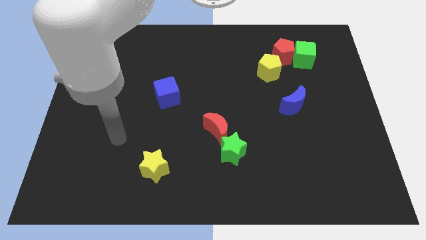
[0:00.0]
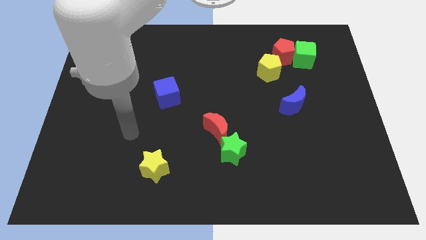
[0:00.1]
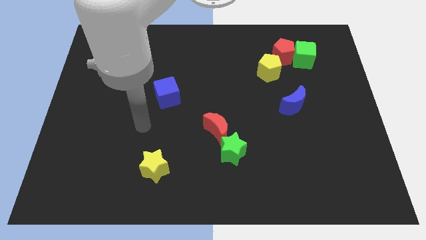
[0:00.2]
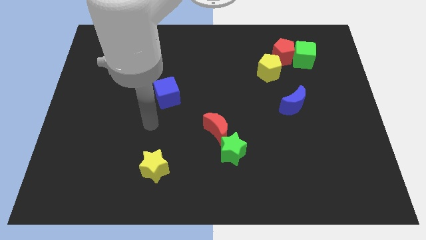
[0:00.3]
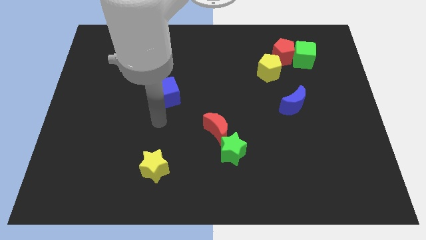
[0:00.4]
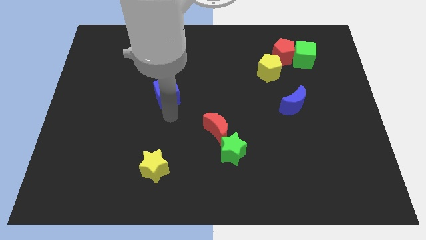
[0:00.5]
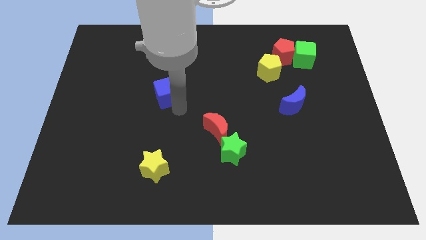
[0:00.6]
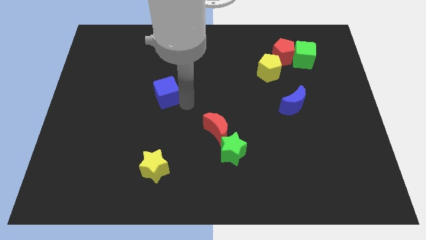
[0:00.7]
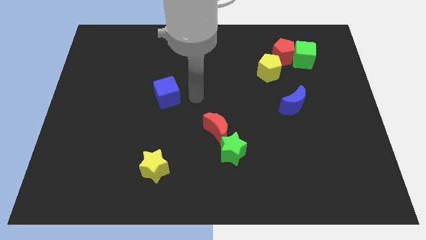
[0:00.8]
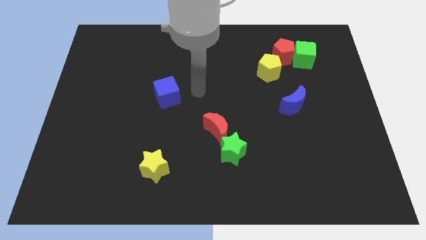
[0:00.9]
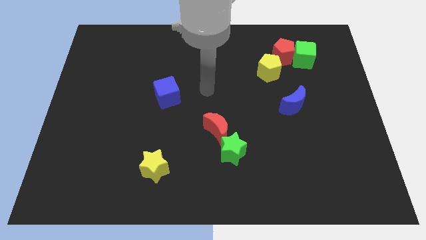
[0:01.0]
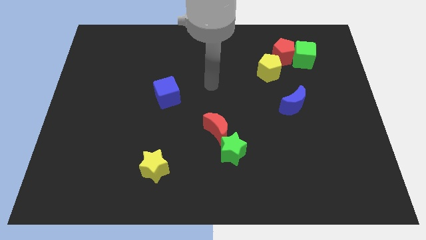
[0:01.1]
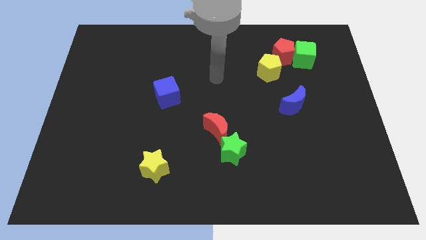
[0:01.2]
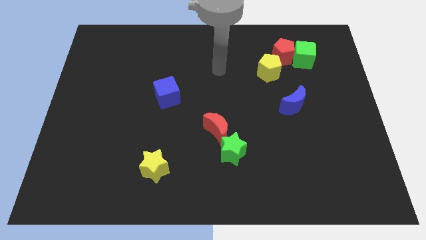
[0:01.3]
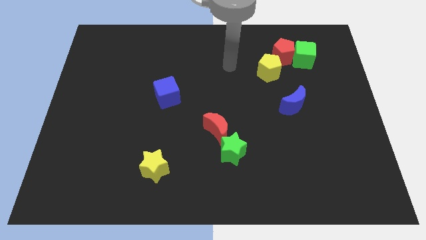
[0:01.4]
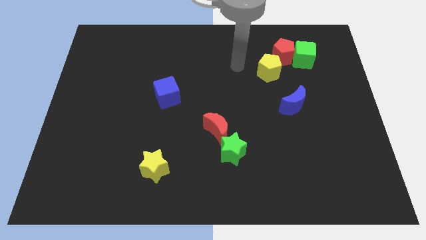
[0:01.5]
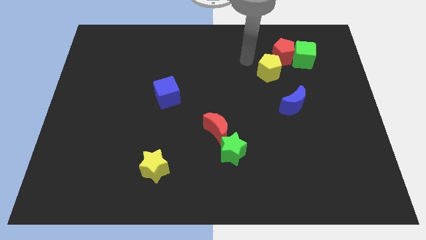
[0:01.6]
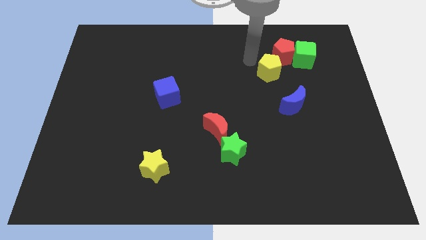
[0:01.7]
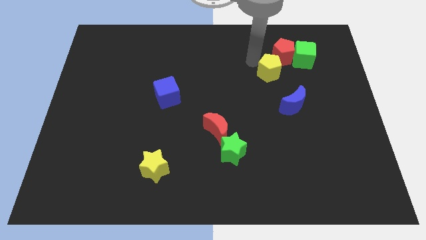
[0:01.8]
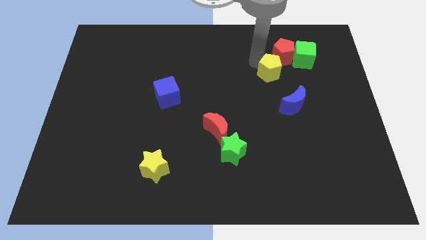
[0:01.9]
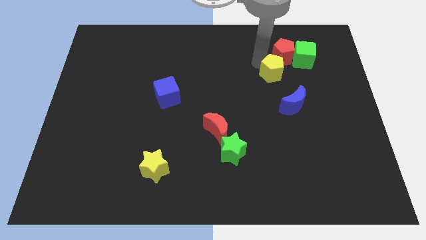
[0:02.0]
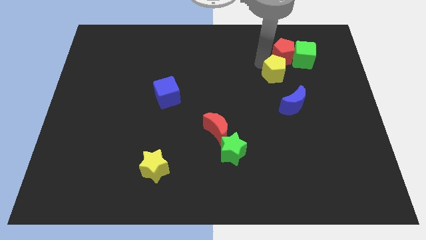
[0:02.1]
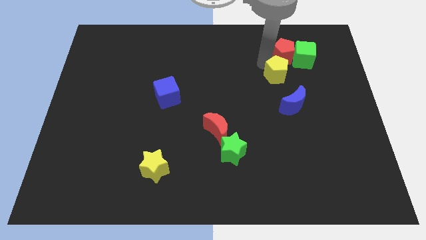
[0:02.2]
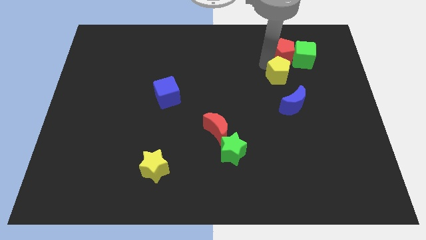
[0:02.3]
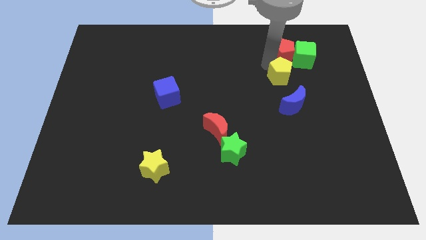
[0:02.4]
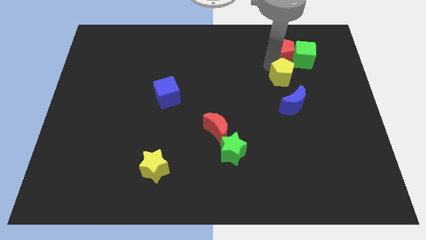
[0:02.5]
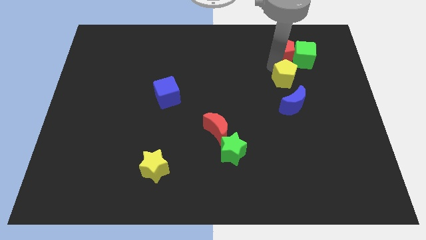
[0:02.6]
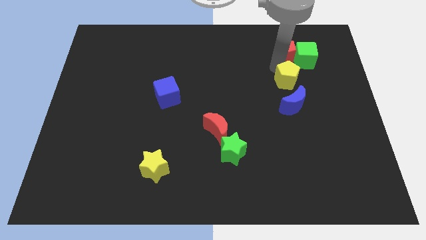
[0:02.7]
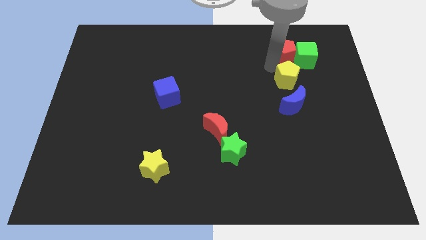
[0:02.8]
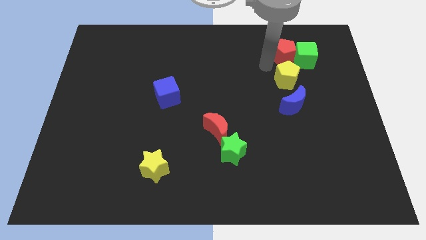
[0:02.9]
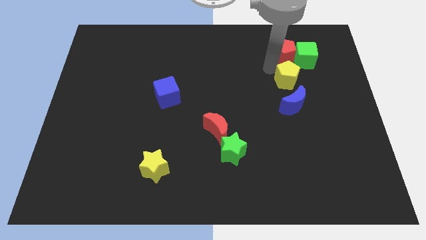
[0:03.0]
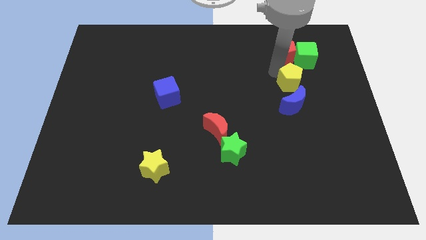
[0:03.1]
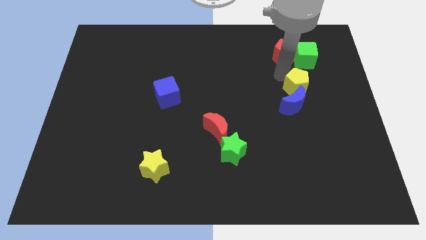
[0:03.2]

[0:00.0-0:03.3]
slightly slide the yellow pentagon downwards and right

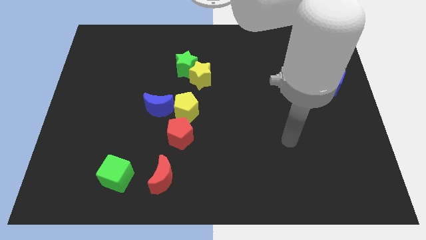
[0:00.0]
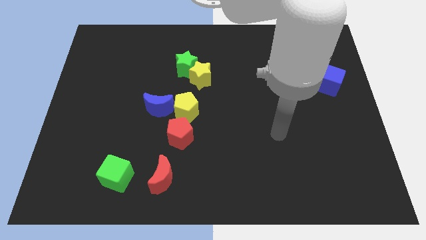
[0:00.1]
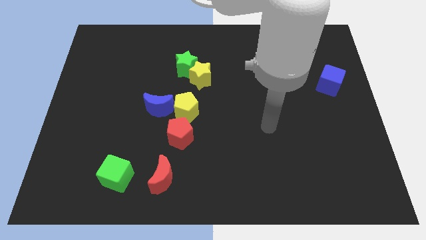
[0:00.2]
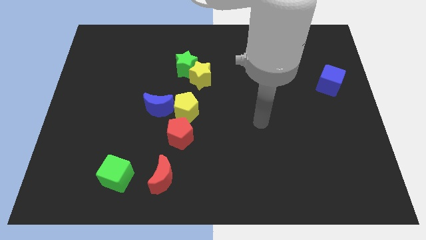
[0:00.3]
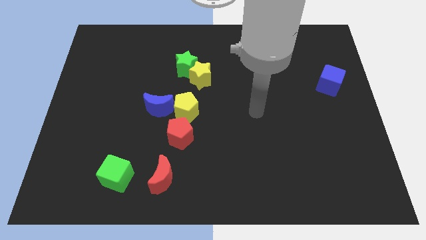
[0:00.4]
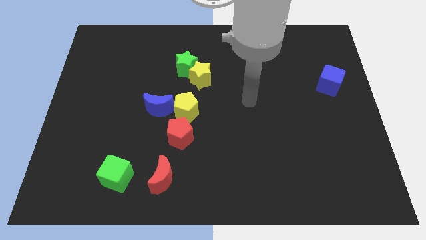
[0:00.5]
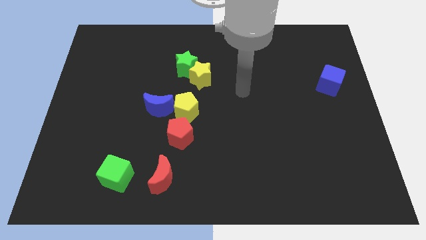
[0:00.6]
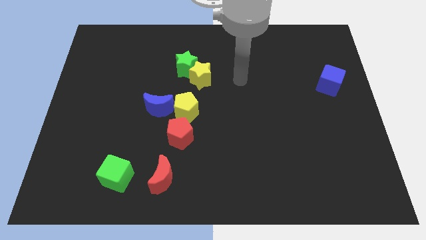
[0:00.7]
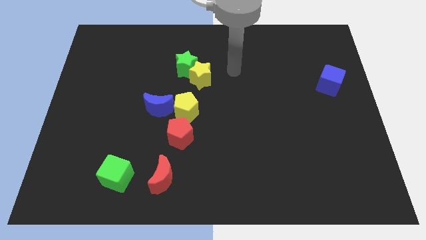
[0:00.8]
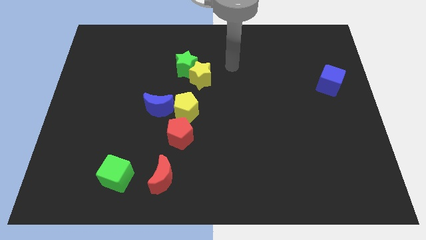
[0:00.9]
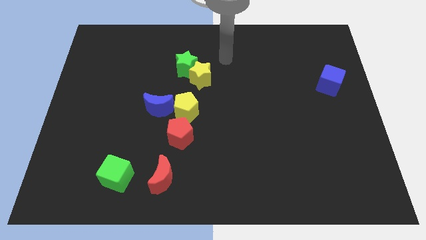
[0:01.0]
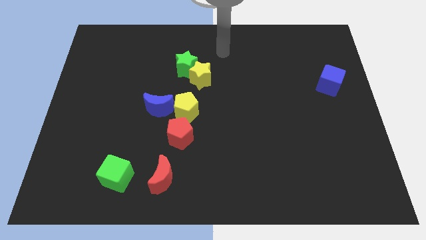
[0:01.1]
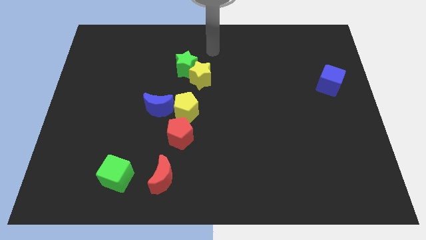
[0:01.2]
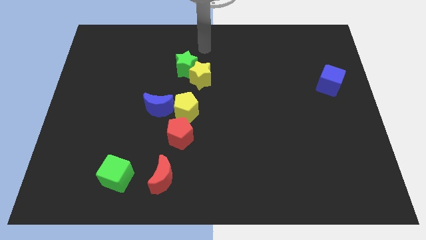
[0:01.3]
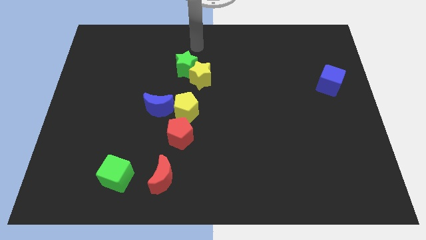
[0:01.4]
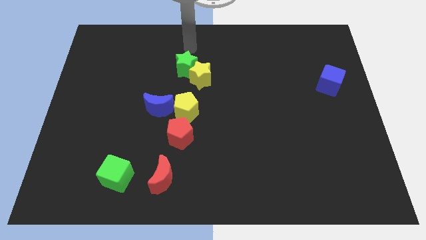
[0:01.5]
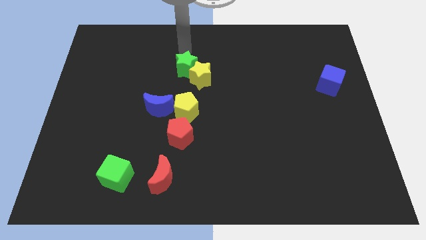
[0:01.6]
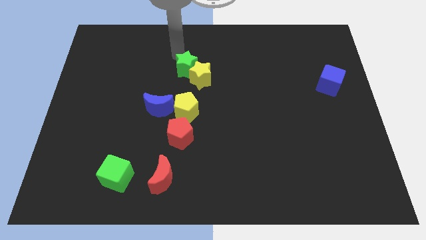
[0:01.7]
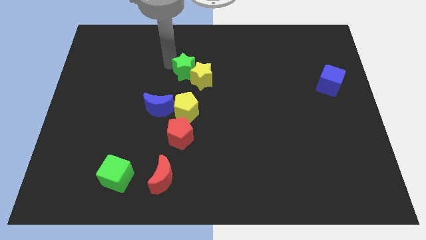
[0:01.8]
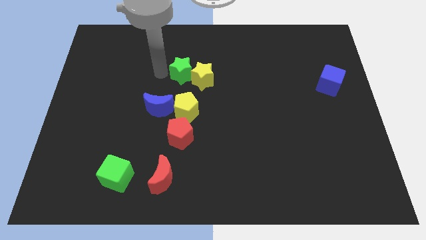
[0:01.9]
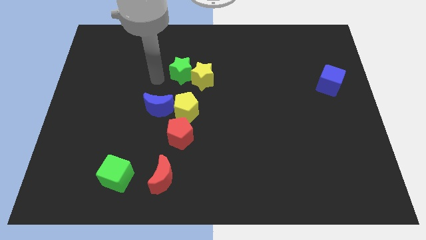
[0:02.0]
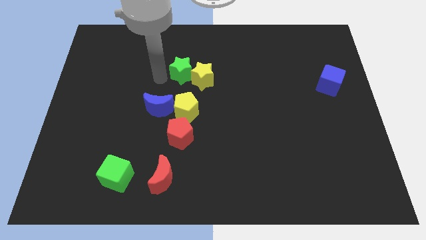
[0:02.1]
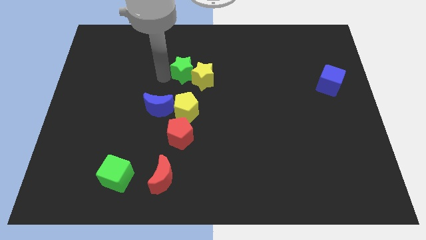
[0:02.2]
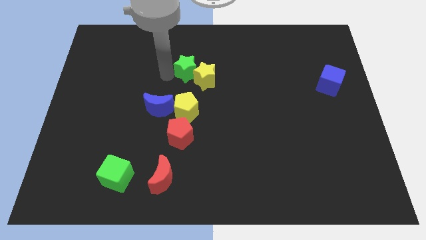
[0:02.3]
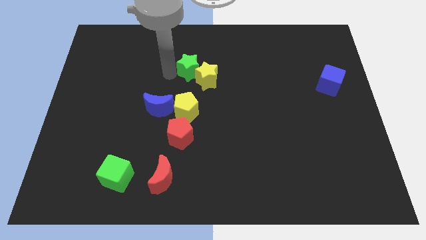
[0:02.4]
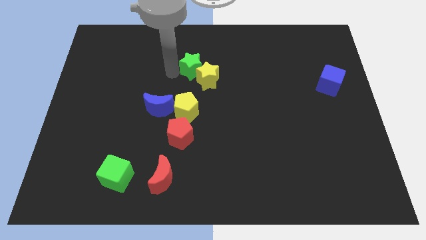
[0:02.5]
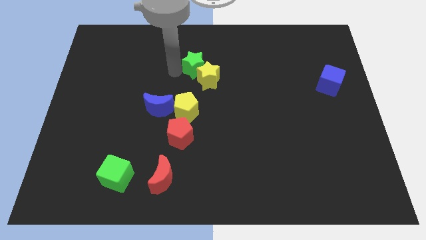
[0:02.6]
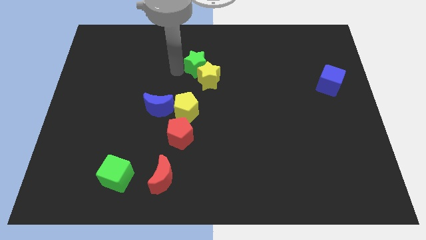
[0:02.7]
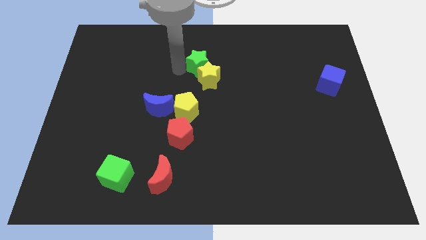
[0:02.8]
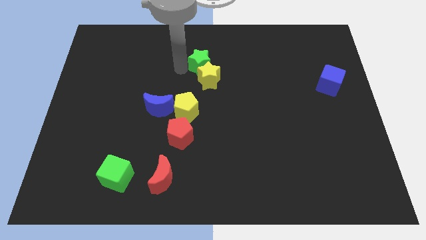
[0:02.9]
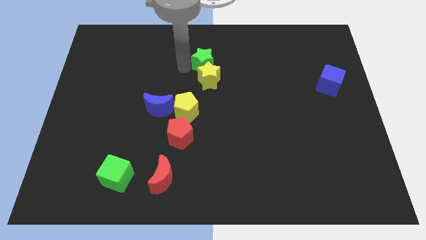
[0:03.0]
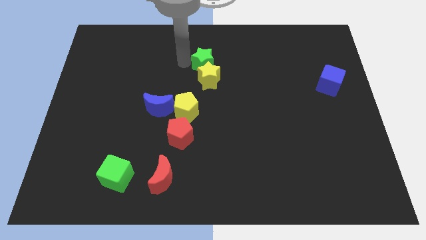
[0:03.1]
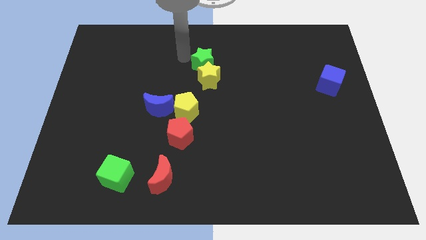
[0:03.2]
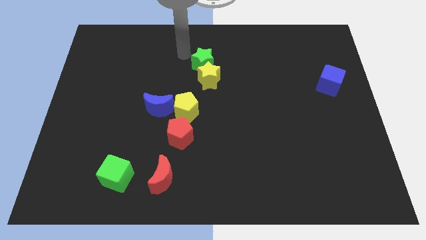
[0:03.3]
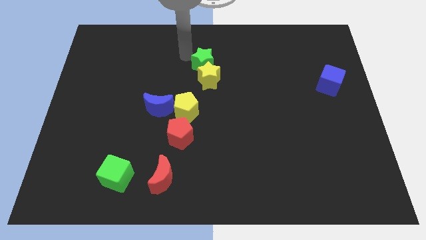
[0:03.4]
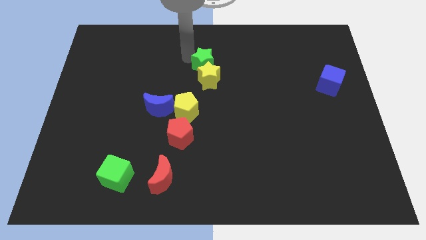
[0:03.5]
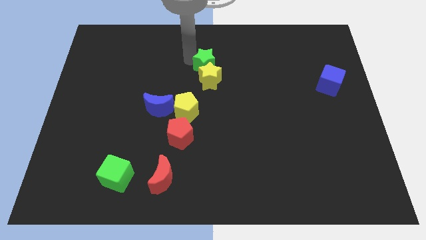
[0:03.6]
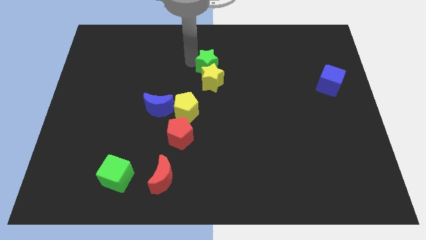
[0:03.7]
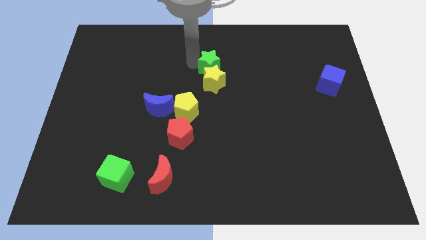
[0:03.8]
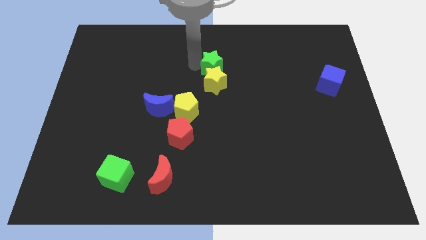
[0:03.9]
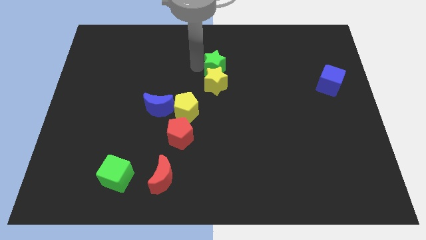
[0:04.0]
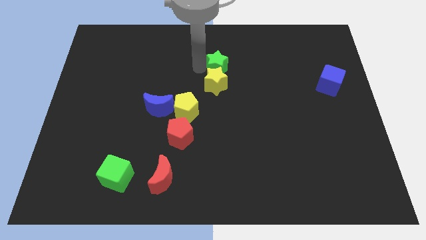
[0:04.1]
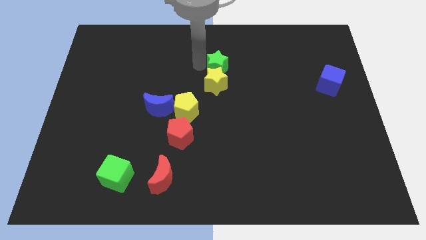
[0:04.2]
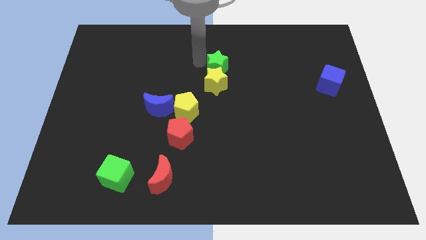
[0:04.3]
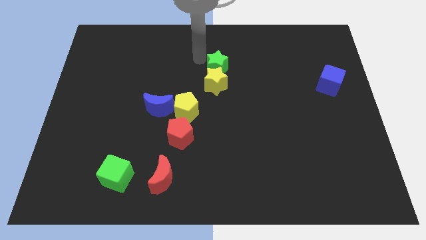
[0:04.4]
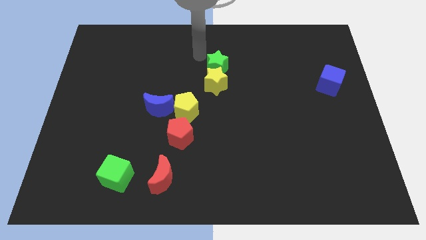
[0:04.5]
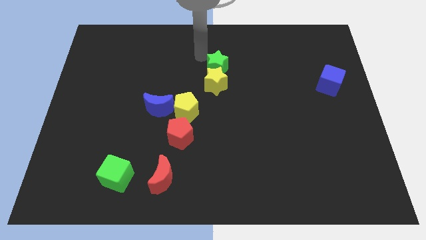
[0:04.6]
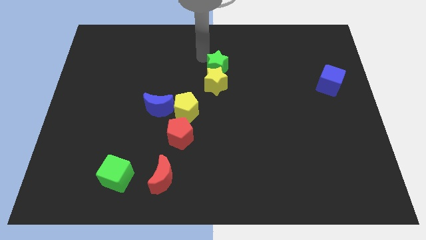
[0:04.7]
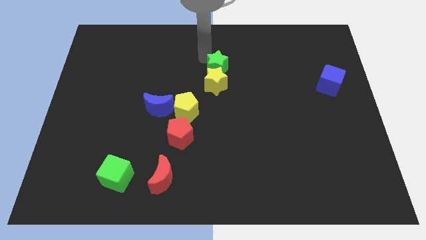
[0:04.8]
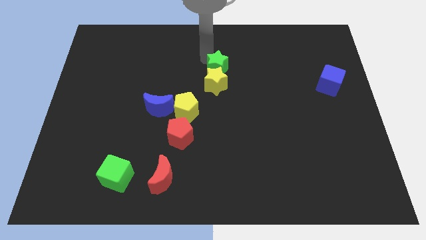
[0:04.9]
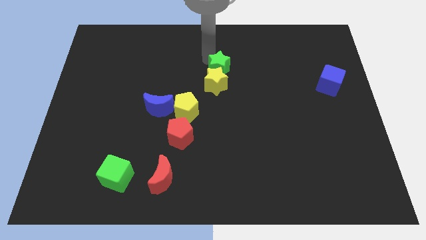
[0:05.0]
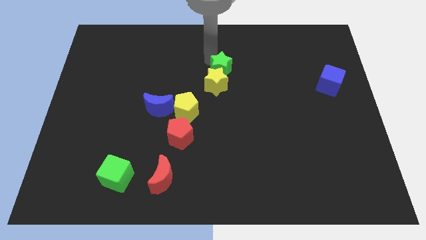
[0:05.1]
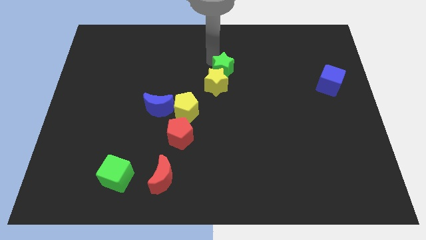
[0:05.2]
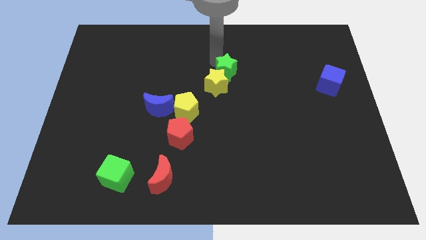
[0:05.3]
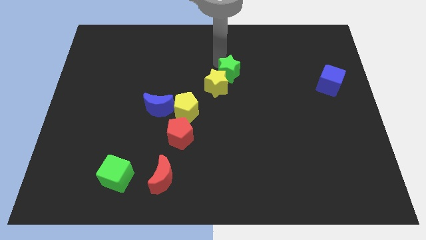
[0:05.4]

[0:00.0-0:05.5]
move the green star downwards and to the right a little bit
